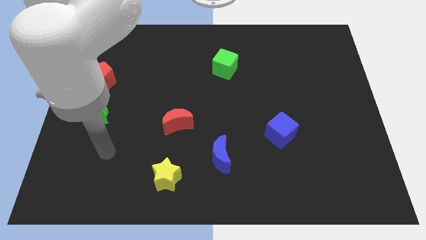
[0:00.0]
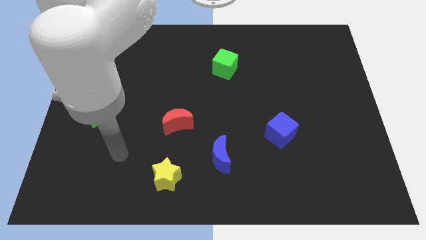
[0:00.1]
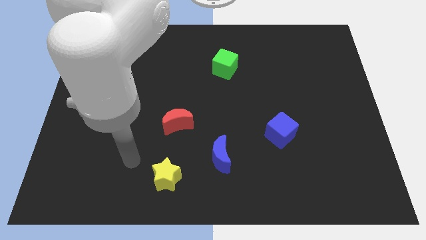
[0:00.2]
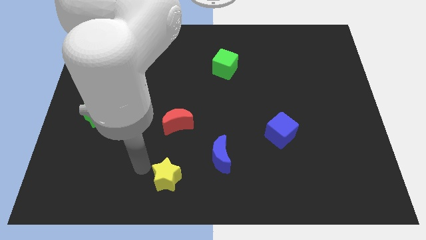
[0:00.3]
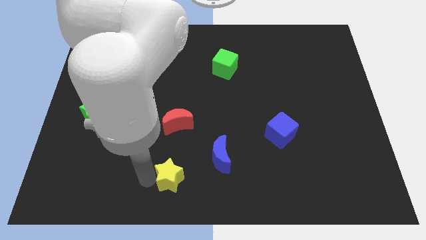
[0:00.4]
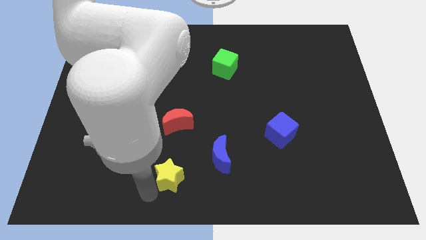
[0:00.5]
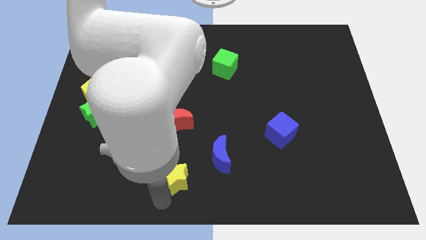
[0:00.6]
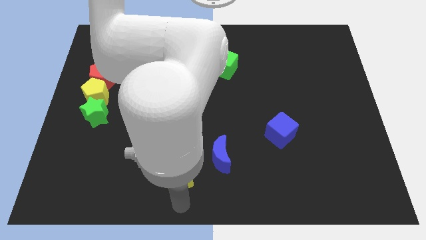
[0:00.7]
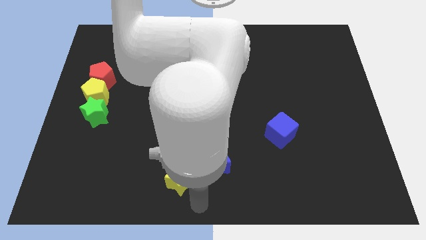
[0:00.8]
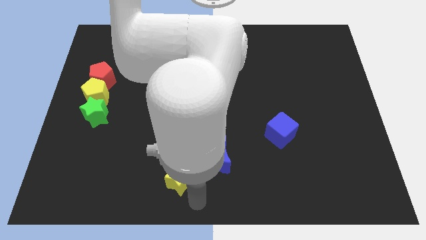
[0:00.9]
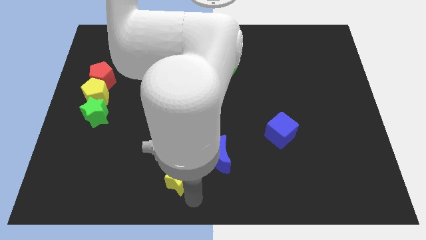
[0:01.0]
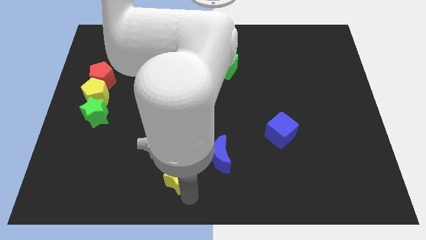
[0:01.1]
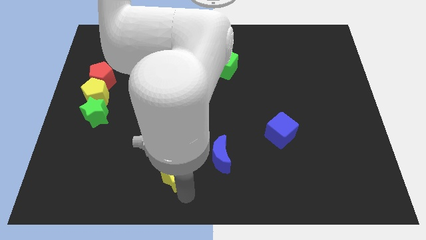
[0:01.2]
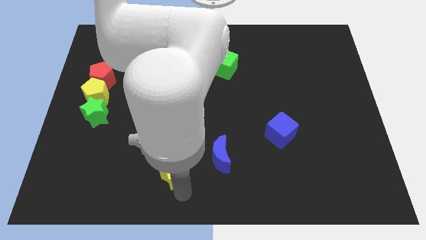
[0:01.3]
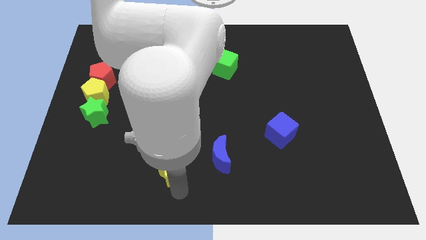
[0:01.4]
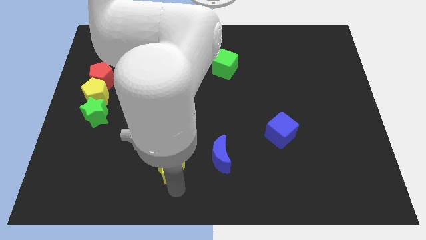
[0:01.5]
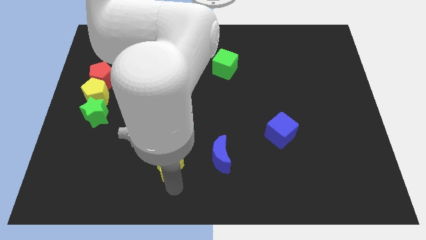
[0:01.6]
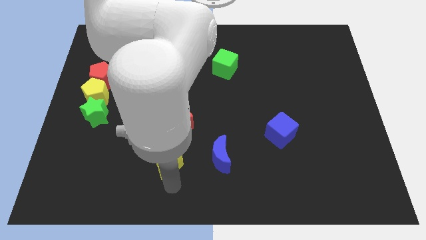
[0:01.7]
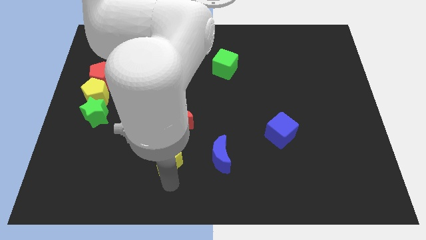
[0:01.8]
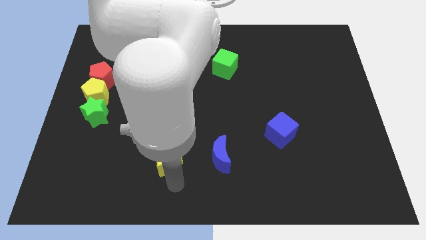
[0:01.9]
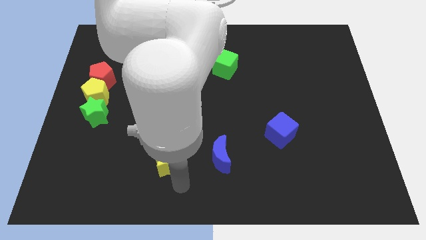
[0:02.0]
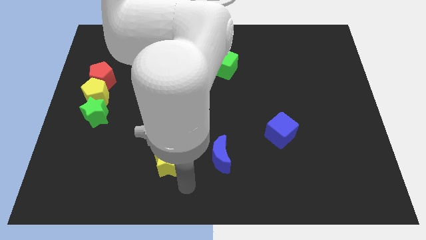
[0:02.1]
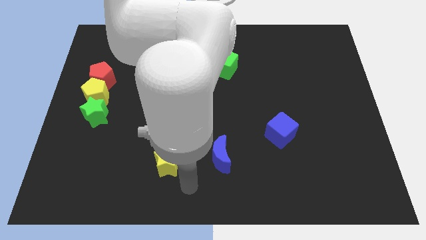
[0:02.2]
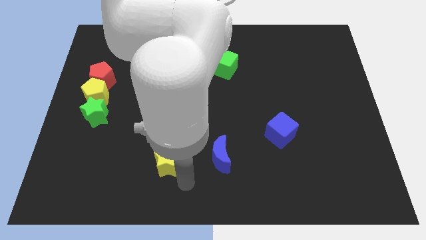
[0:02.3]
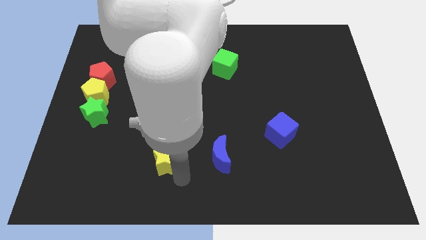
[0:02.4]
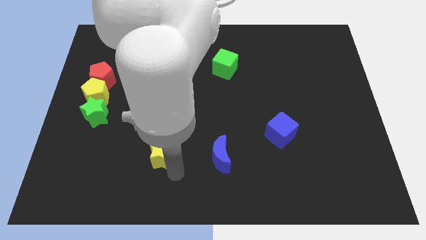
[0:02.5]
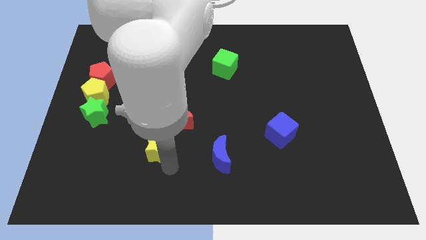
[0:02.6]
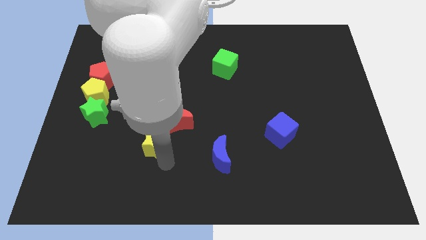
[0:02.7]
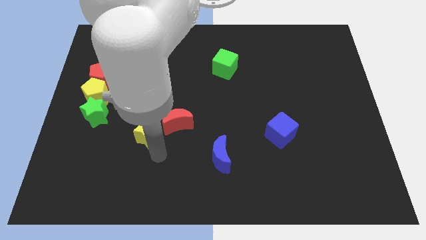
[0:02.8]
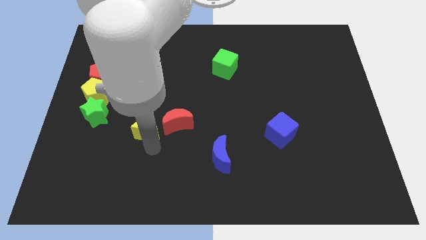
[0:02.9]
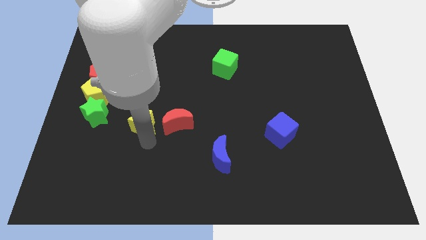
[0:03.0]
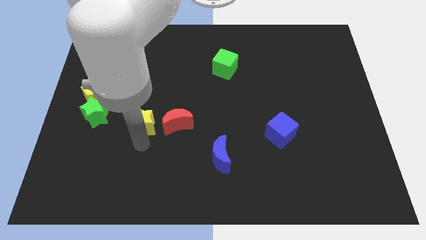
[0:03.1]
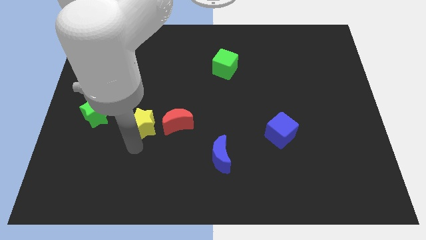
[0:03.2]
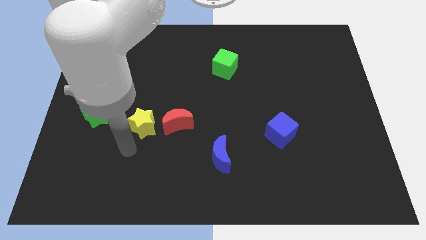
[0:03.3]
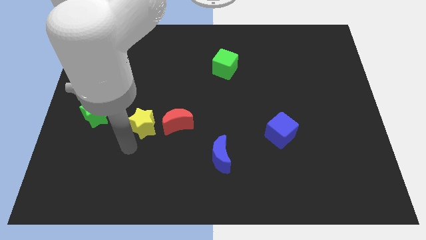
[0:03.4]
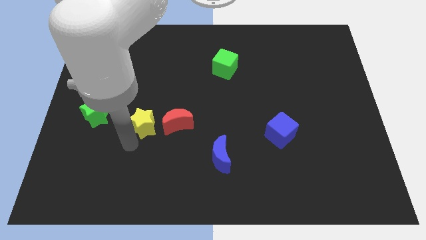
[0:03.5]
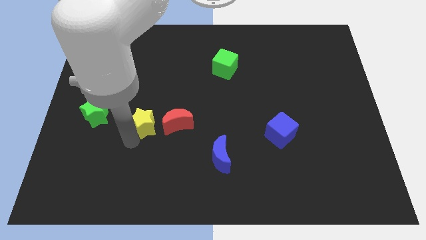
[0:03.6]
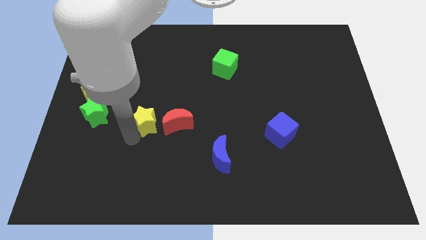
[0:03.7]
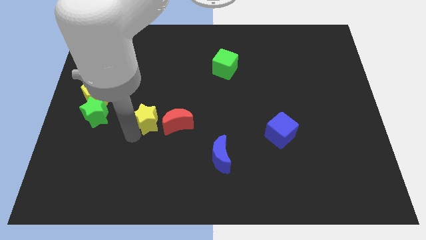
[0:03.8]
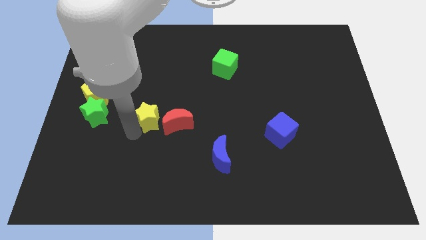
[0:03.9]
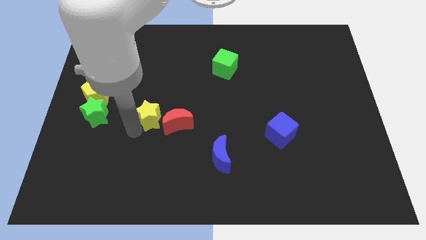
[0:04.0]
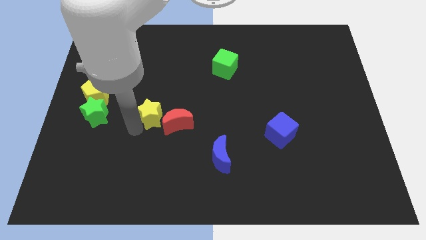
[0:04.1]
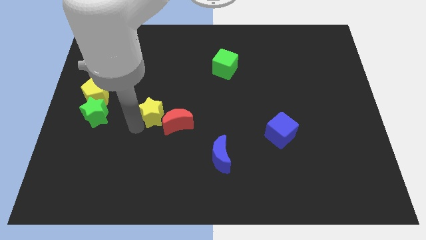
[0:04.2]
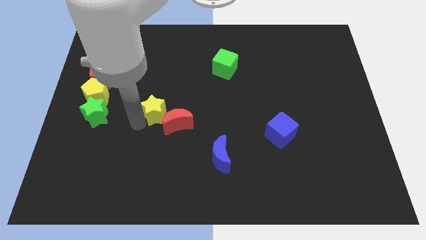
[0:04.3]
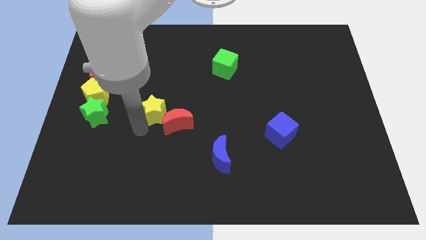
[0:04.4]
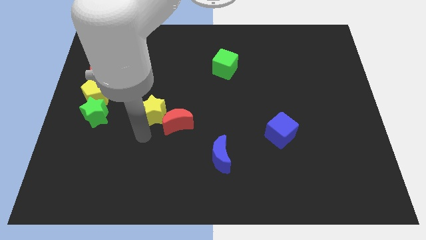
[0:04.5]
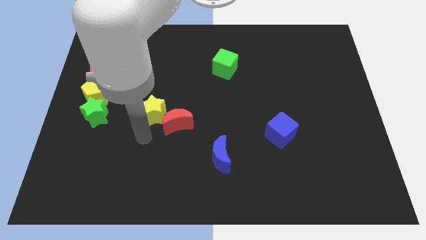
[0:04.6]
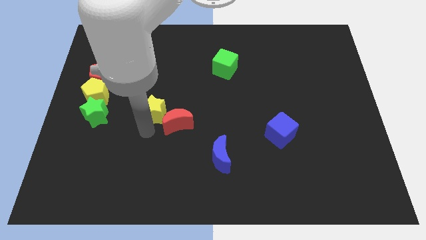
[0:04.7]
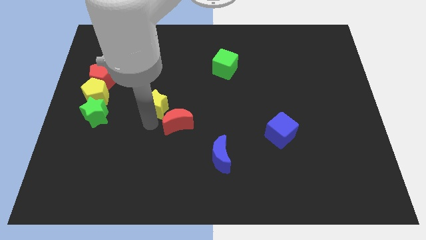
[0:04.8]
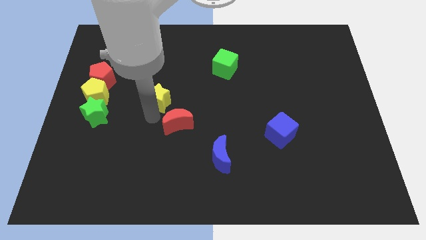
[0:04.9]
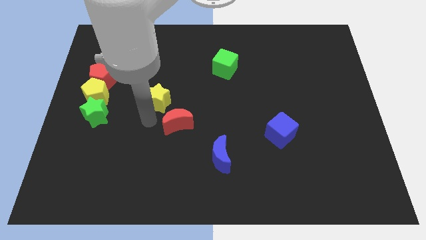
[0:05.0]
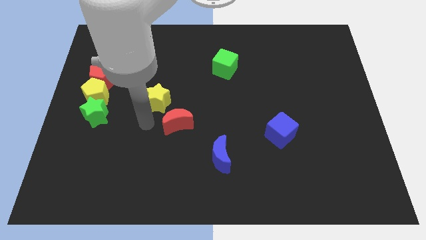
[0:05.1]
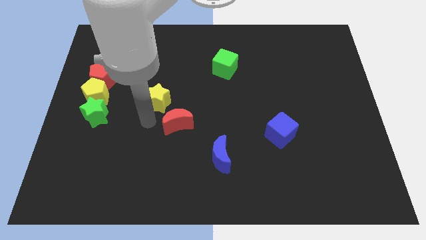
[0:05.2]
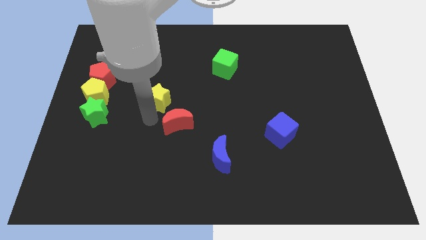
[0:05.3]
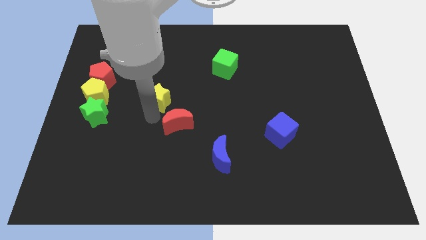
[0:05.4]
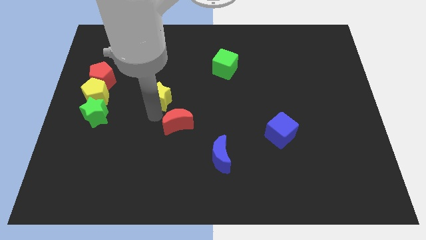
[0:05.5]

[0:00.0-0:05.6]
slide the yellow star up

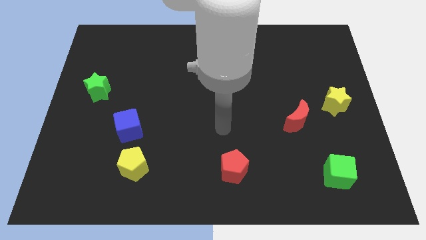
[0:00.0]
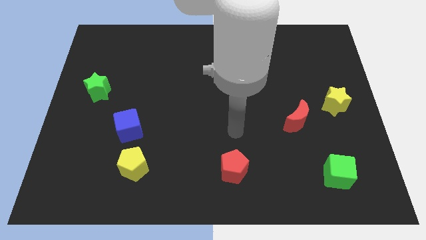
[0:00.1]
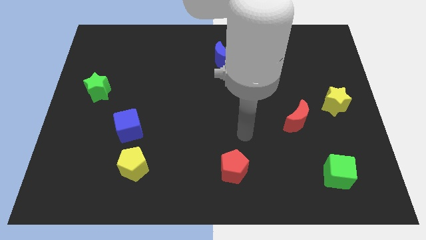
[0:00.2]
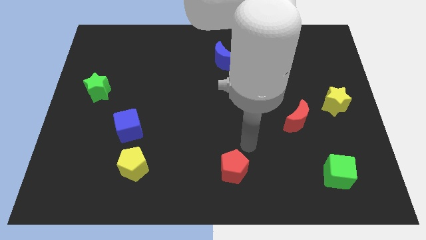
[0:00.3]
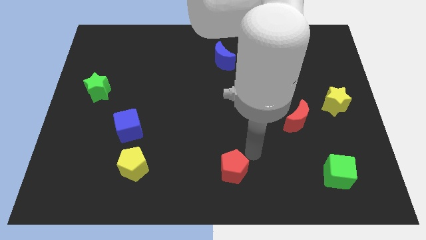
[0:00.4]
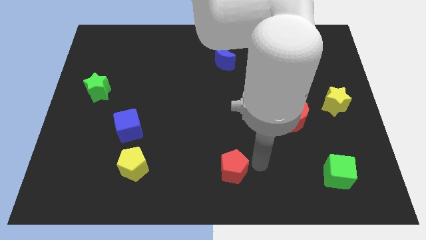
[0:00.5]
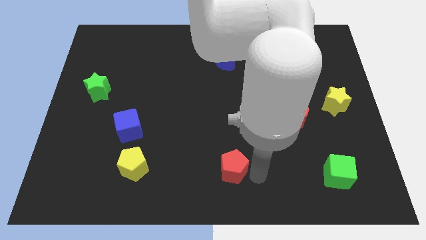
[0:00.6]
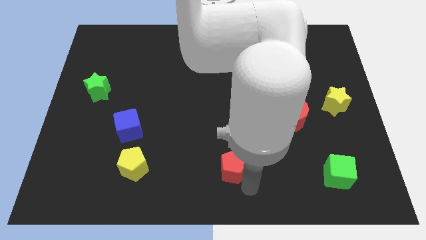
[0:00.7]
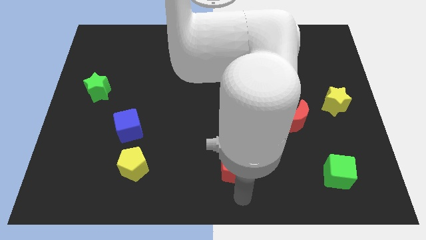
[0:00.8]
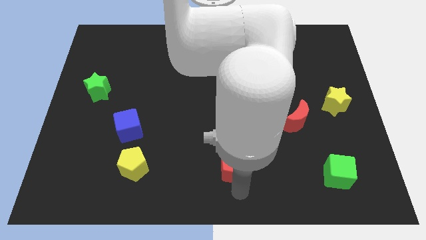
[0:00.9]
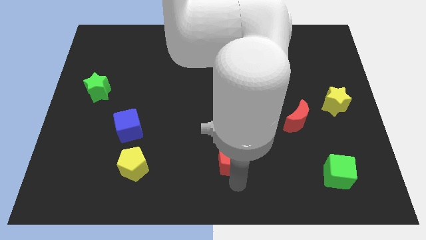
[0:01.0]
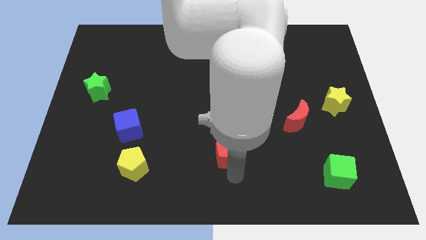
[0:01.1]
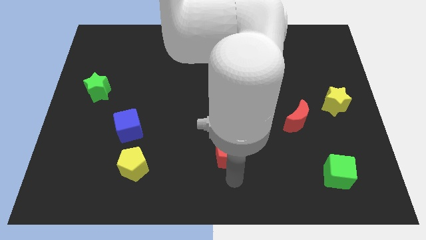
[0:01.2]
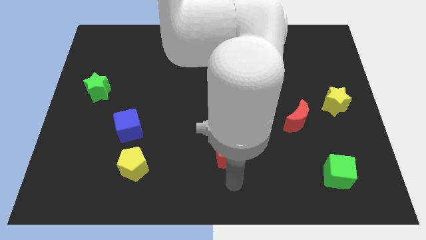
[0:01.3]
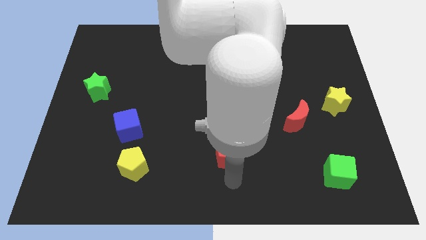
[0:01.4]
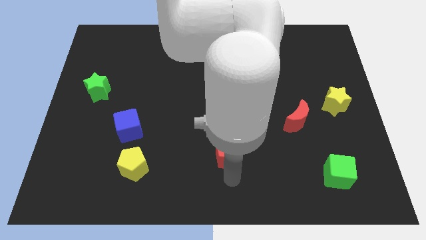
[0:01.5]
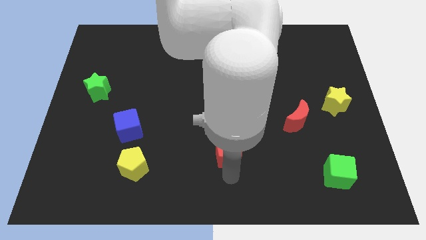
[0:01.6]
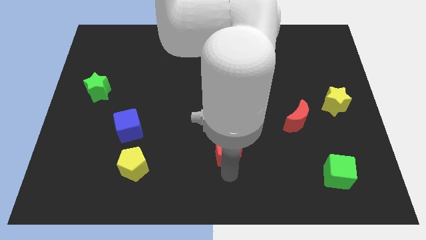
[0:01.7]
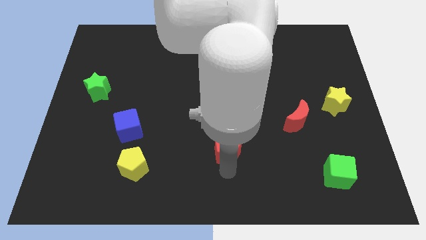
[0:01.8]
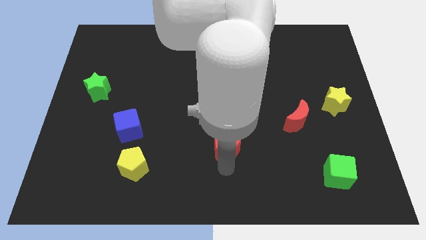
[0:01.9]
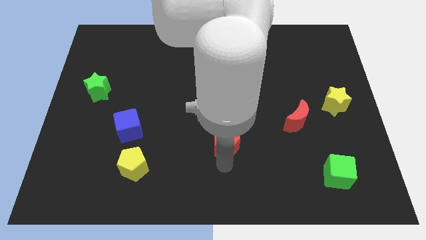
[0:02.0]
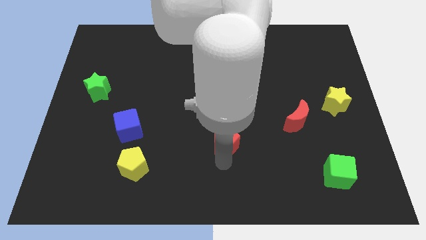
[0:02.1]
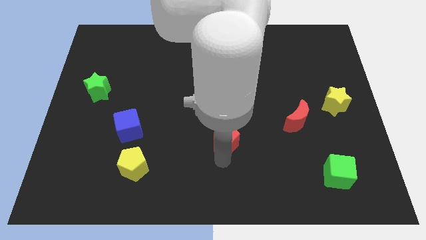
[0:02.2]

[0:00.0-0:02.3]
move the red pentagon somewhat upwards

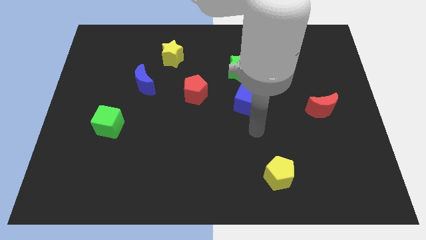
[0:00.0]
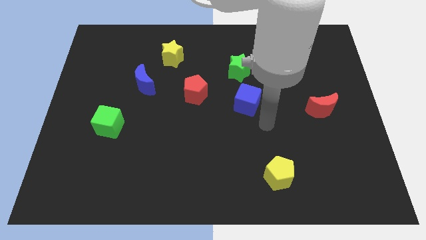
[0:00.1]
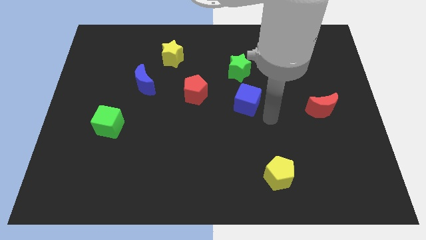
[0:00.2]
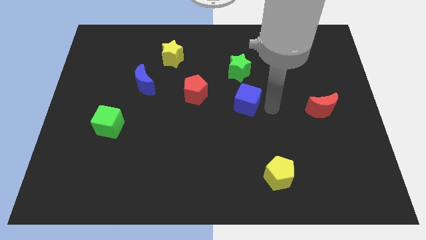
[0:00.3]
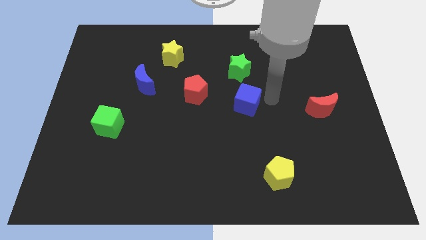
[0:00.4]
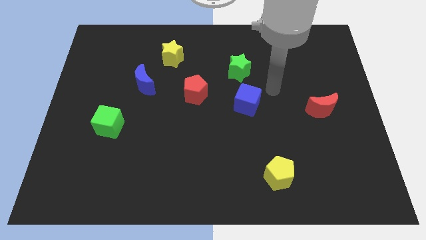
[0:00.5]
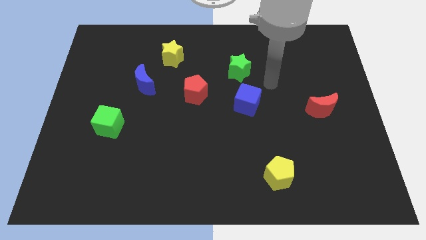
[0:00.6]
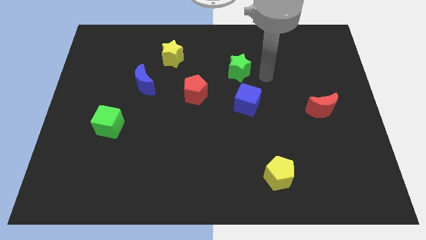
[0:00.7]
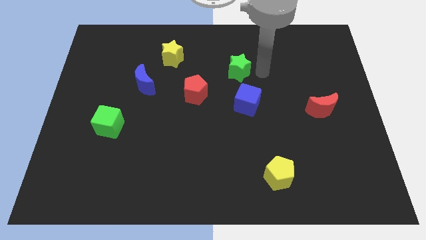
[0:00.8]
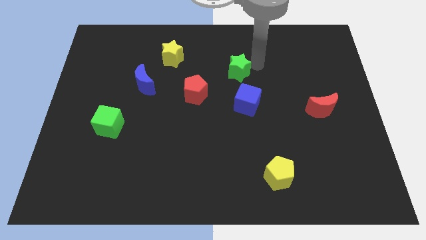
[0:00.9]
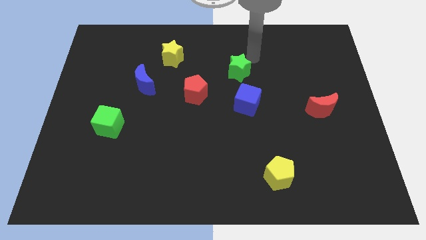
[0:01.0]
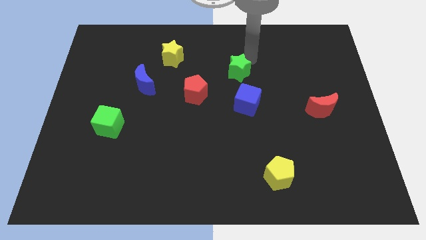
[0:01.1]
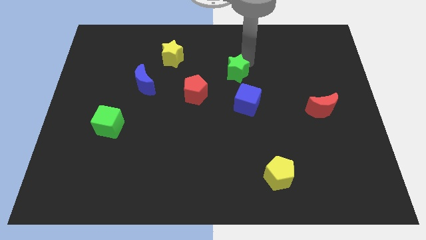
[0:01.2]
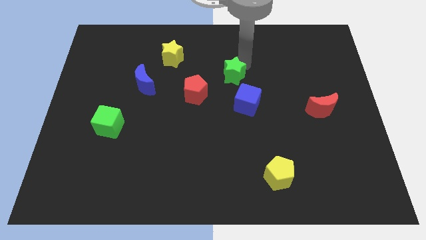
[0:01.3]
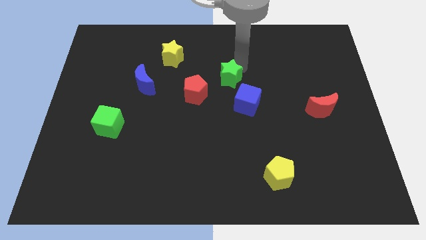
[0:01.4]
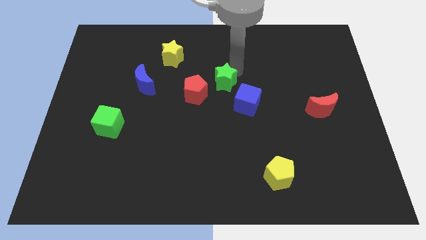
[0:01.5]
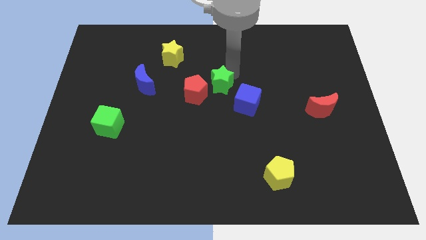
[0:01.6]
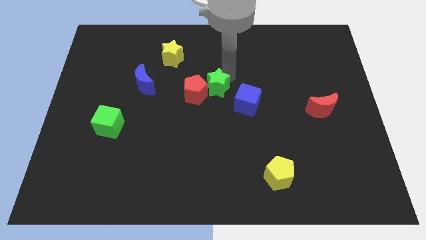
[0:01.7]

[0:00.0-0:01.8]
slightly push the green star downwards and left
